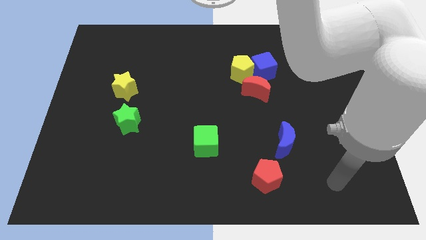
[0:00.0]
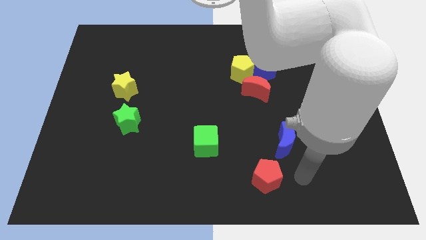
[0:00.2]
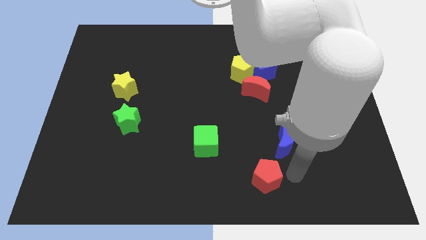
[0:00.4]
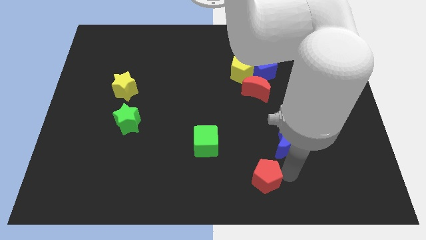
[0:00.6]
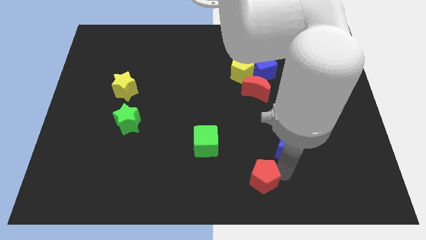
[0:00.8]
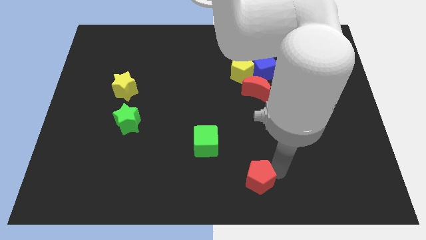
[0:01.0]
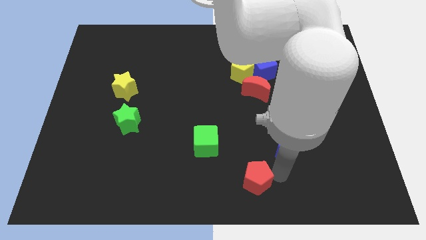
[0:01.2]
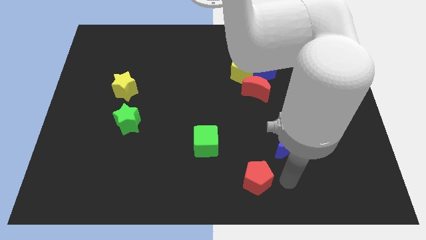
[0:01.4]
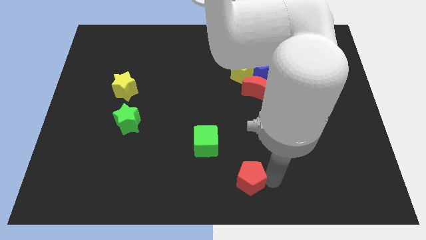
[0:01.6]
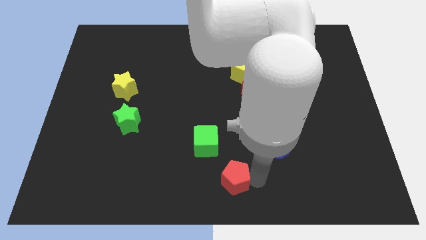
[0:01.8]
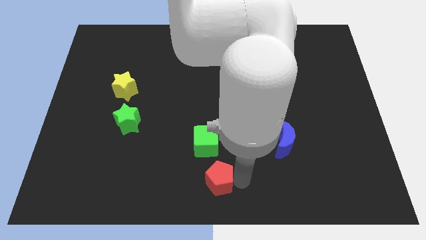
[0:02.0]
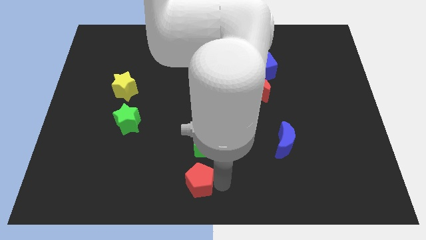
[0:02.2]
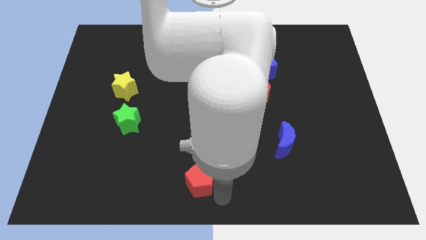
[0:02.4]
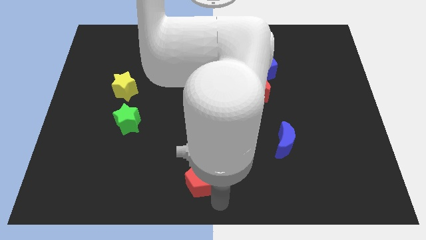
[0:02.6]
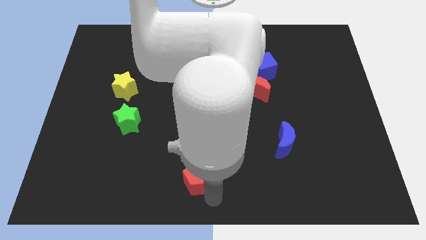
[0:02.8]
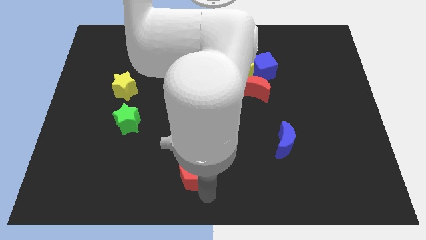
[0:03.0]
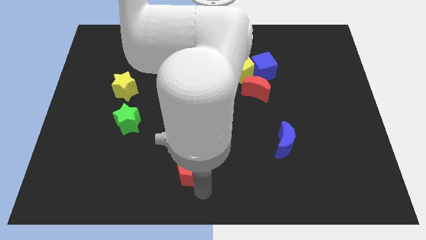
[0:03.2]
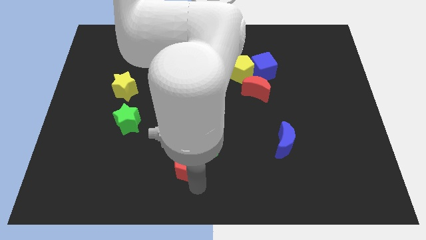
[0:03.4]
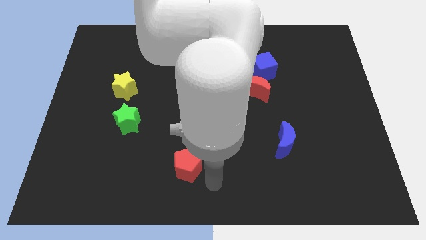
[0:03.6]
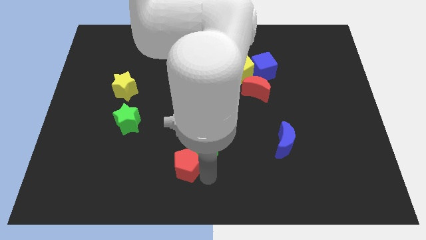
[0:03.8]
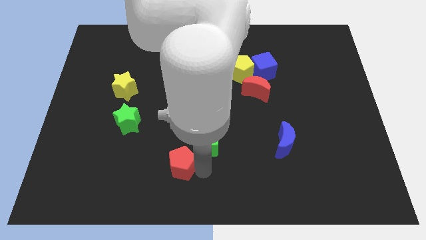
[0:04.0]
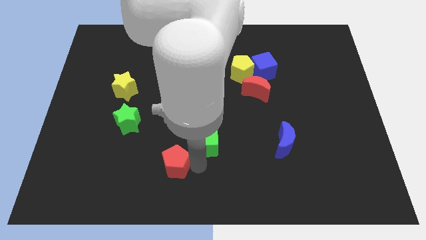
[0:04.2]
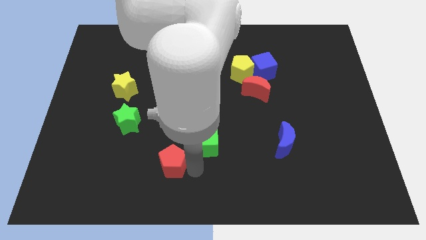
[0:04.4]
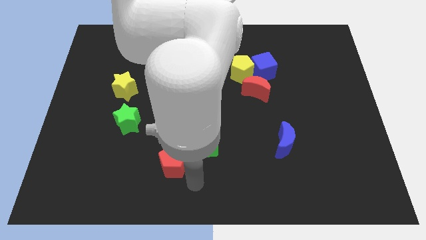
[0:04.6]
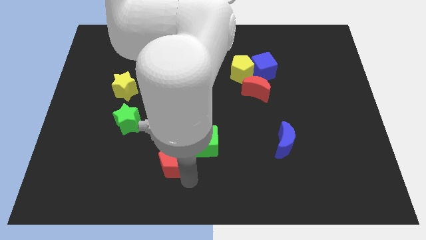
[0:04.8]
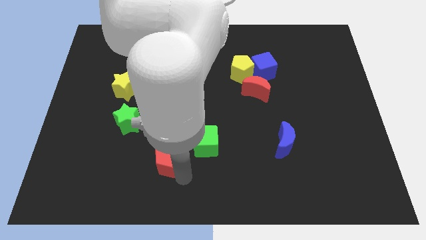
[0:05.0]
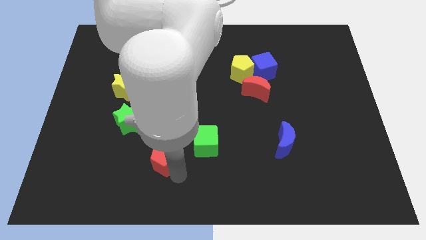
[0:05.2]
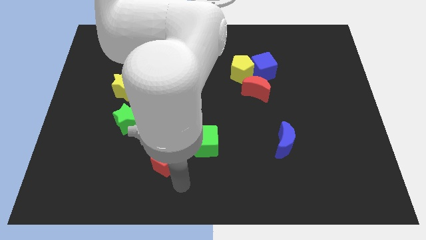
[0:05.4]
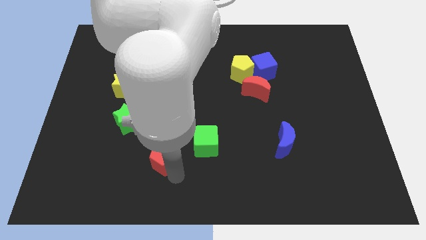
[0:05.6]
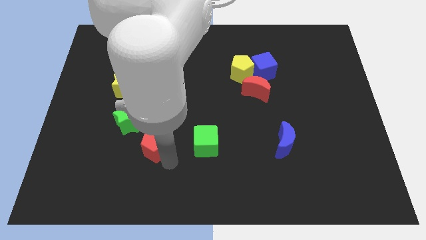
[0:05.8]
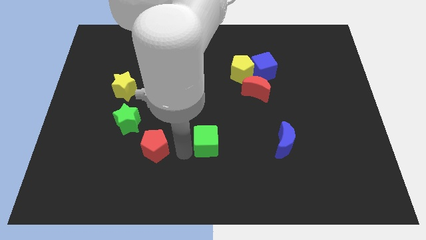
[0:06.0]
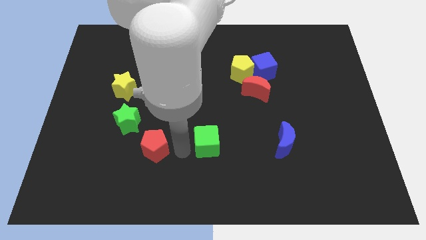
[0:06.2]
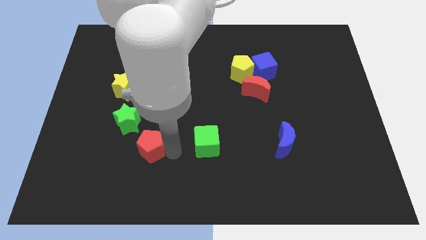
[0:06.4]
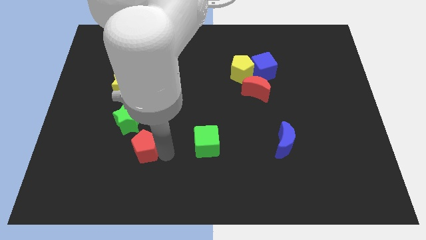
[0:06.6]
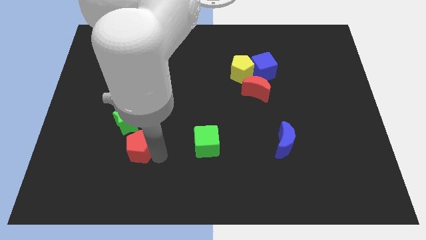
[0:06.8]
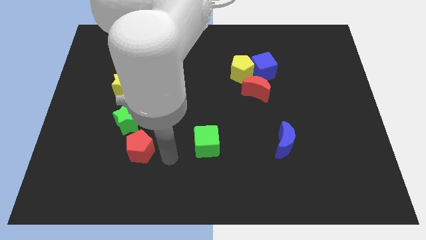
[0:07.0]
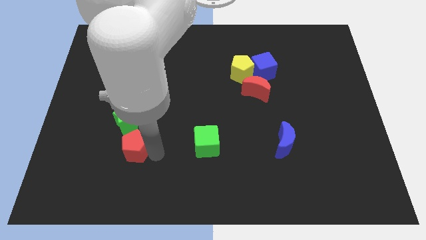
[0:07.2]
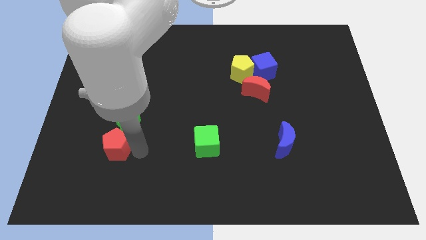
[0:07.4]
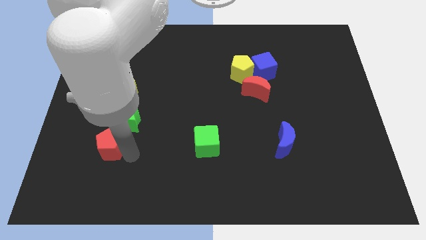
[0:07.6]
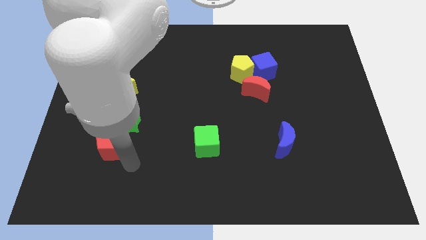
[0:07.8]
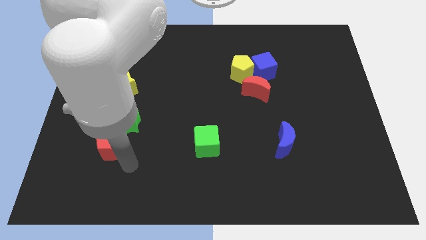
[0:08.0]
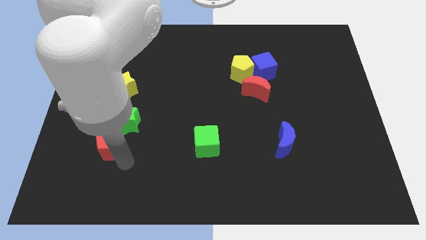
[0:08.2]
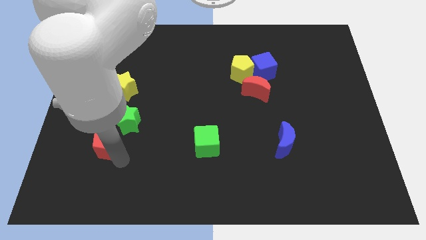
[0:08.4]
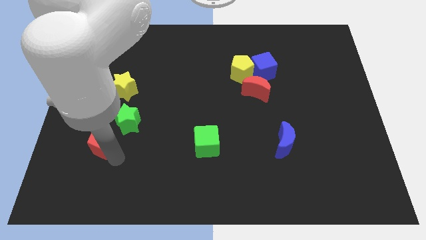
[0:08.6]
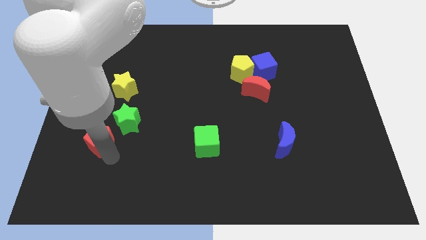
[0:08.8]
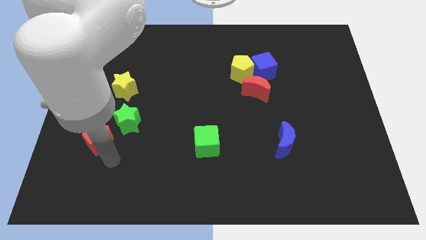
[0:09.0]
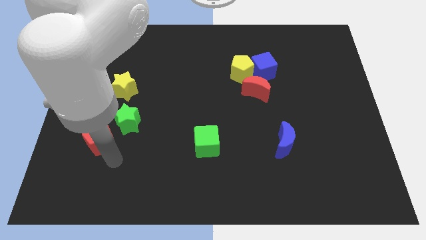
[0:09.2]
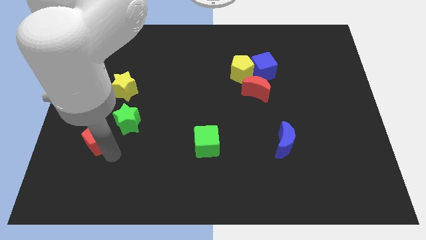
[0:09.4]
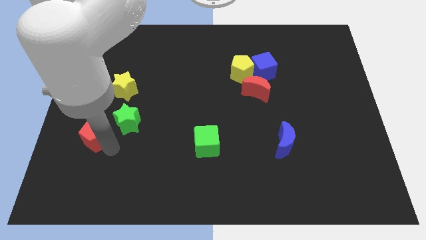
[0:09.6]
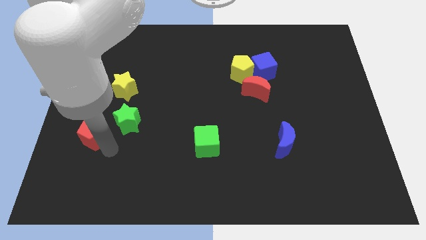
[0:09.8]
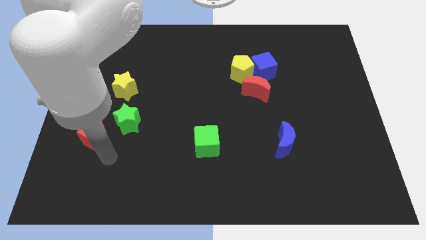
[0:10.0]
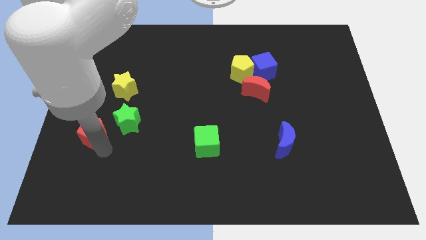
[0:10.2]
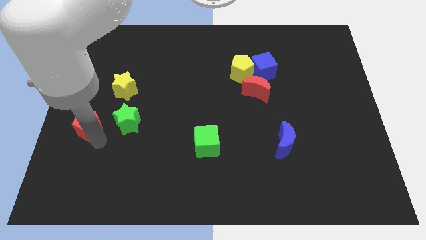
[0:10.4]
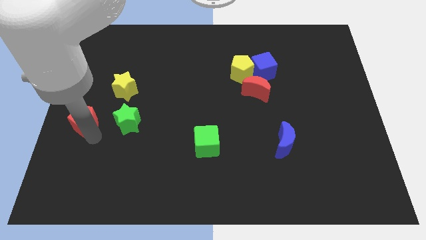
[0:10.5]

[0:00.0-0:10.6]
slide the red pentagon to the bottom left side of the yellow star

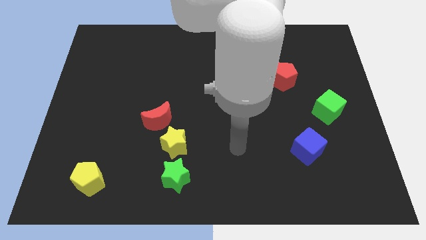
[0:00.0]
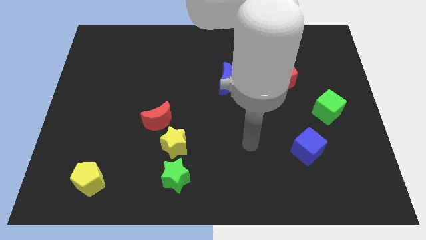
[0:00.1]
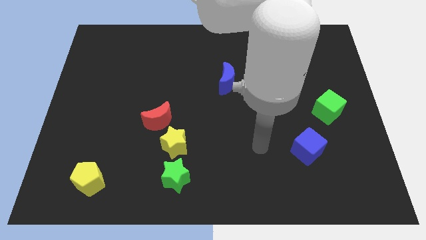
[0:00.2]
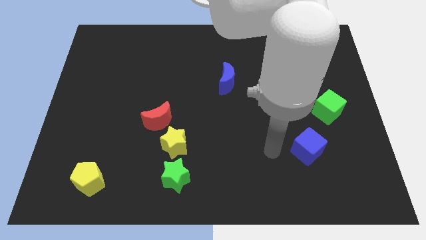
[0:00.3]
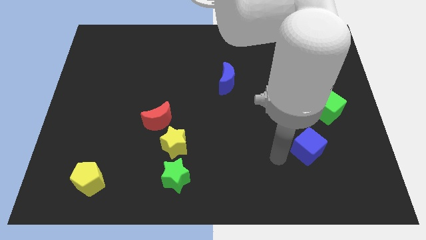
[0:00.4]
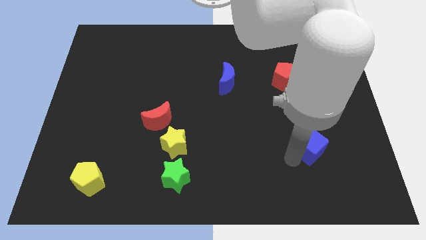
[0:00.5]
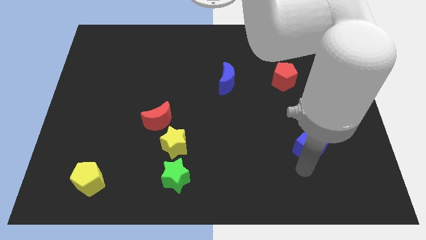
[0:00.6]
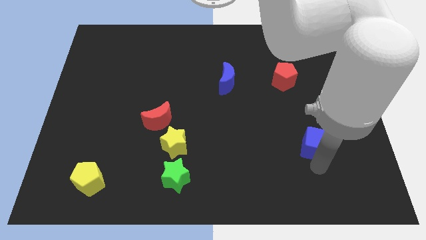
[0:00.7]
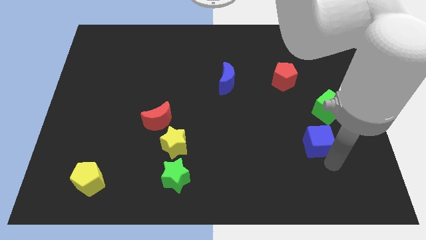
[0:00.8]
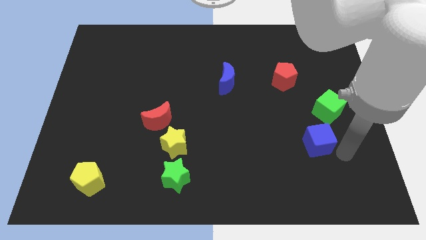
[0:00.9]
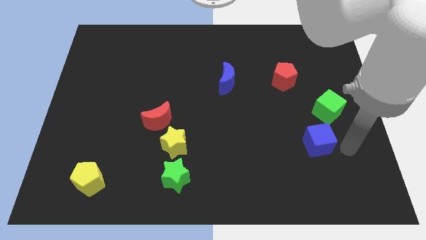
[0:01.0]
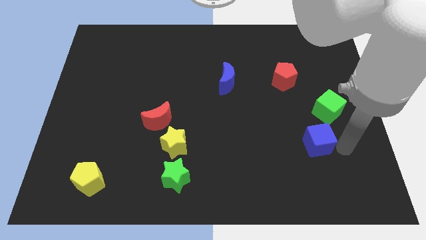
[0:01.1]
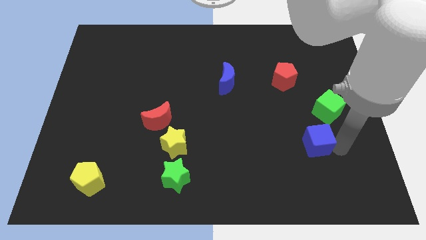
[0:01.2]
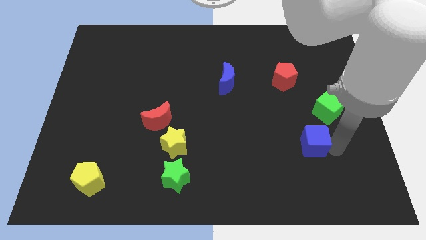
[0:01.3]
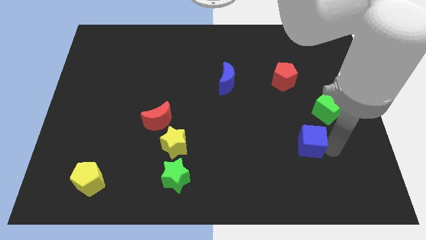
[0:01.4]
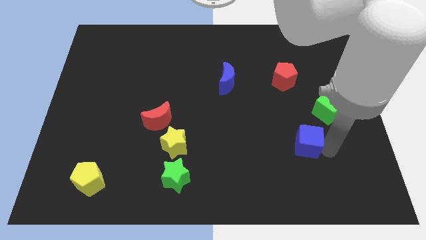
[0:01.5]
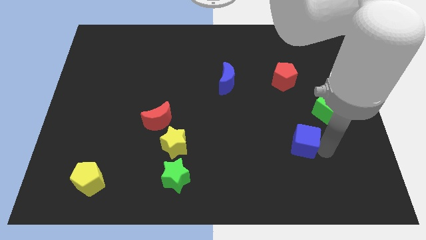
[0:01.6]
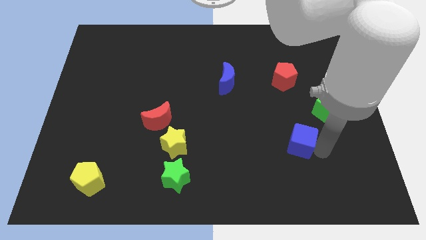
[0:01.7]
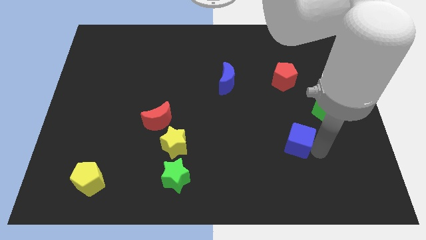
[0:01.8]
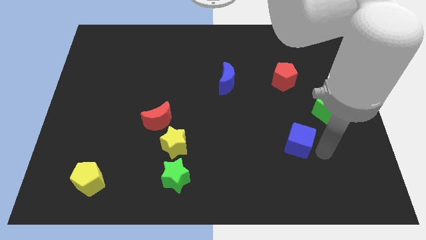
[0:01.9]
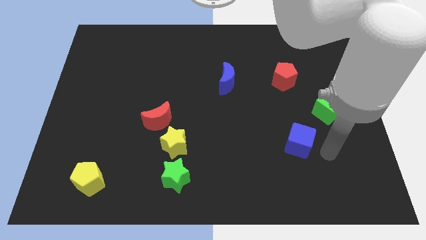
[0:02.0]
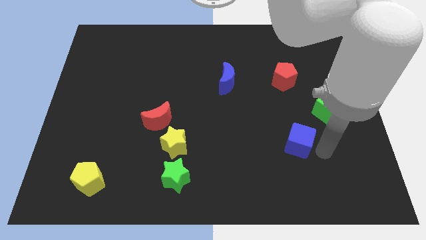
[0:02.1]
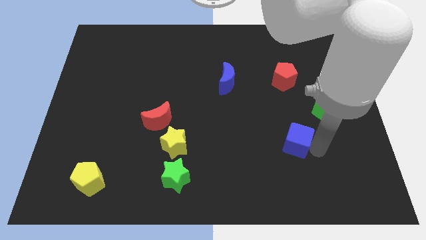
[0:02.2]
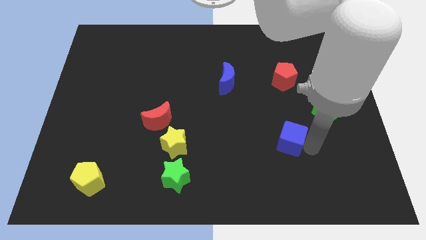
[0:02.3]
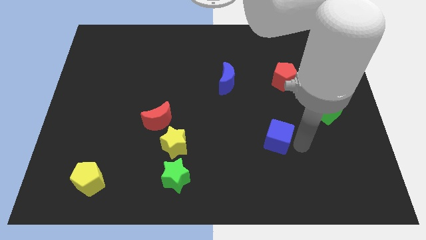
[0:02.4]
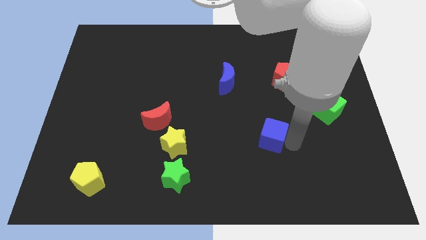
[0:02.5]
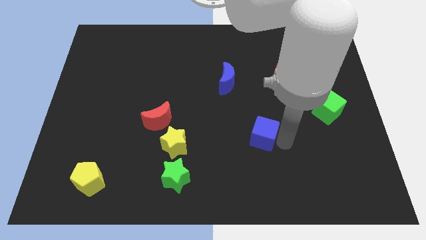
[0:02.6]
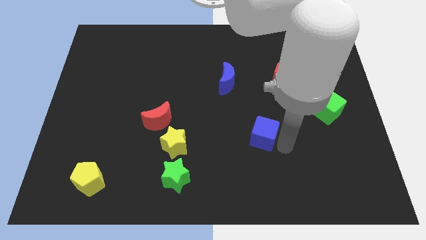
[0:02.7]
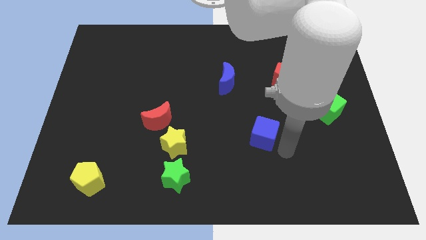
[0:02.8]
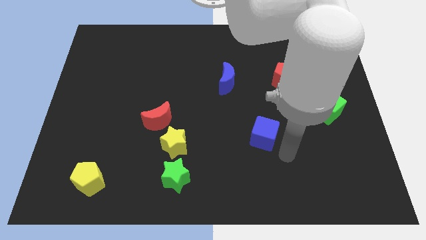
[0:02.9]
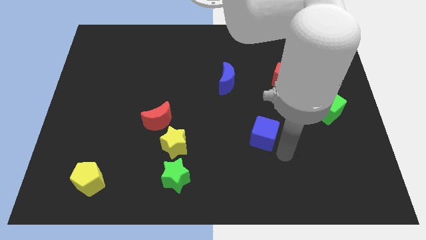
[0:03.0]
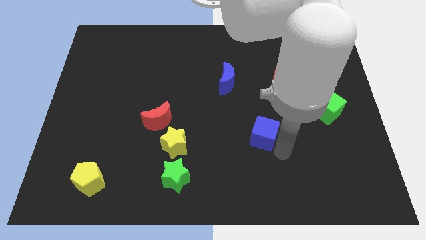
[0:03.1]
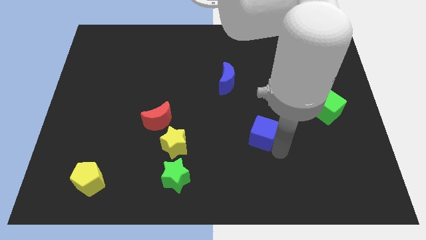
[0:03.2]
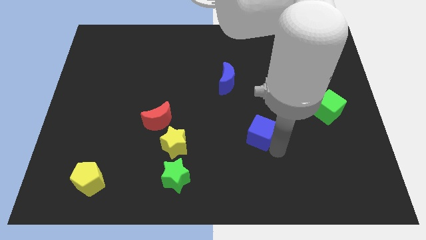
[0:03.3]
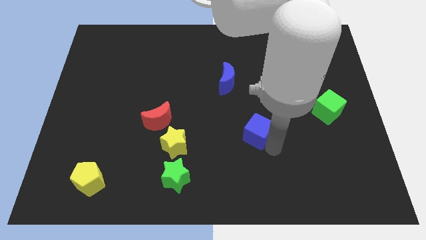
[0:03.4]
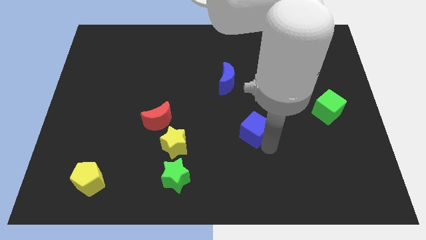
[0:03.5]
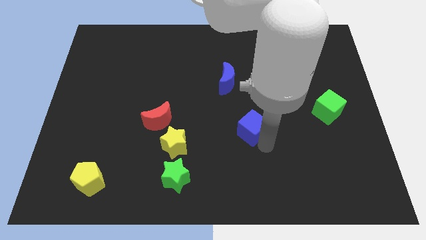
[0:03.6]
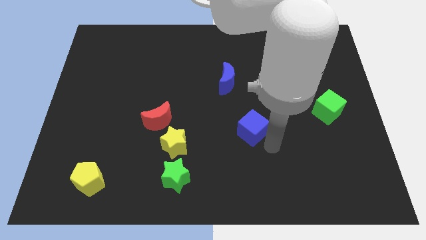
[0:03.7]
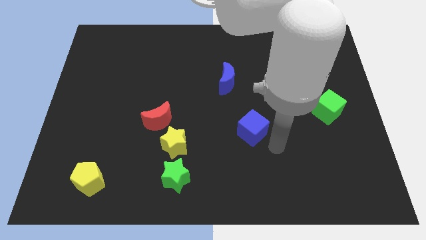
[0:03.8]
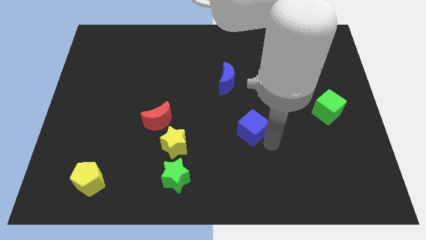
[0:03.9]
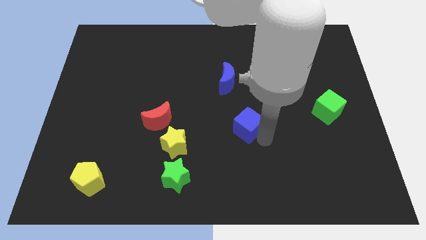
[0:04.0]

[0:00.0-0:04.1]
push the blue cube to the bottom side of the blue moon
